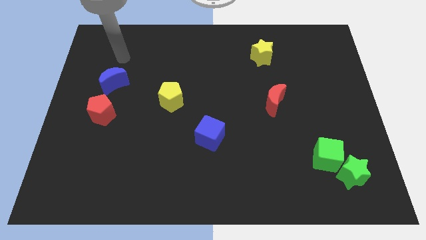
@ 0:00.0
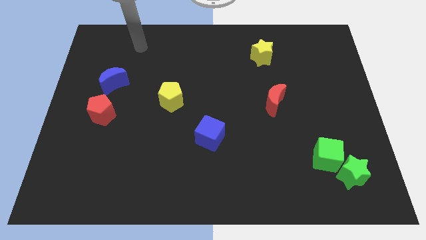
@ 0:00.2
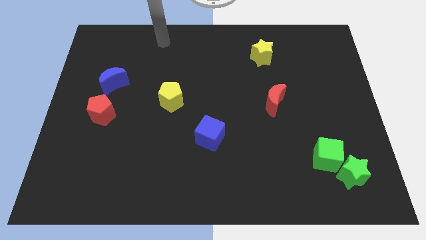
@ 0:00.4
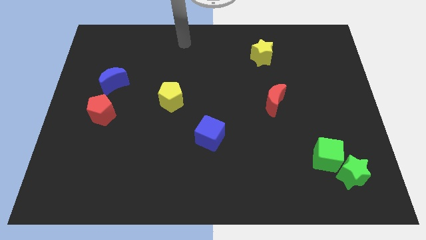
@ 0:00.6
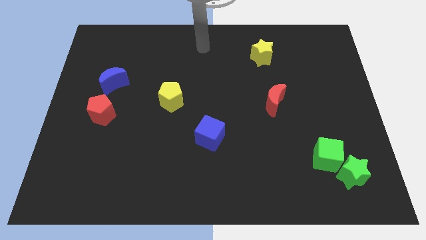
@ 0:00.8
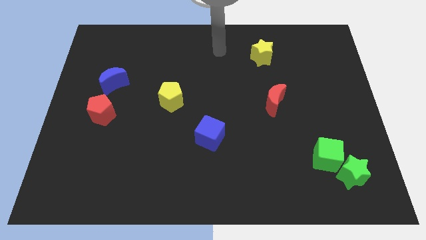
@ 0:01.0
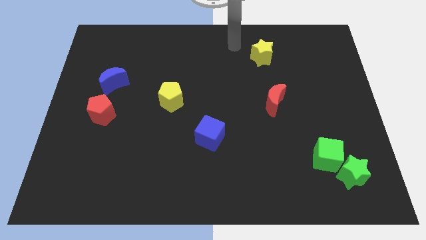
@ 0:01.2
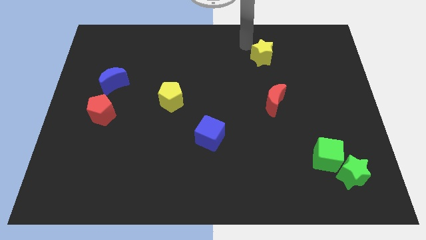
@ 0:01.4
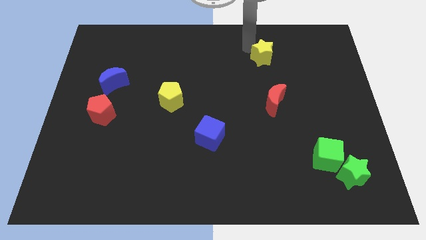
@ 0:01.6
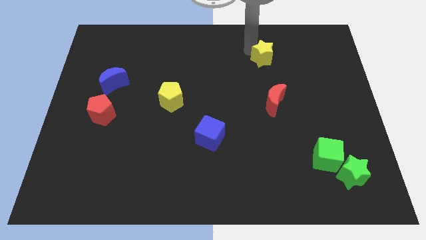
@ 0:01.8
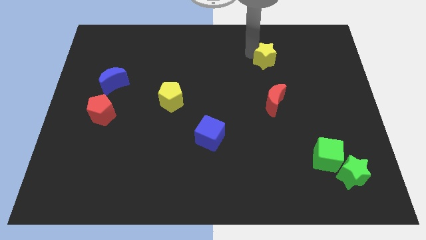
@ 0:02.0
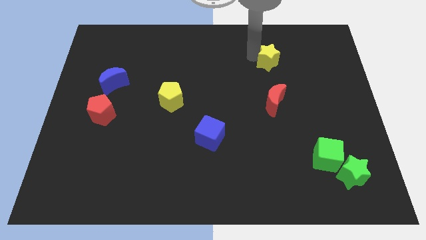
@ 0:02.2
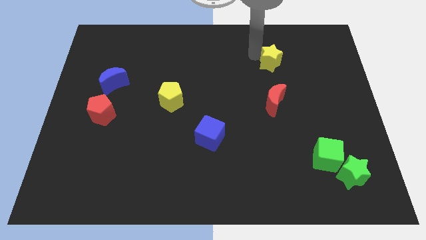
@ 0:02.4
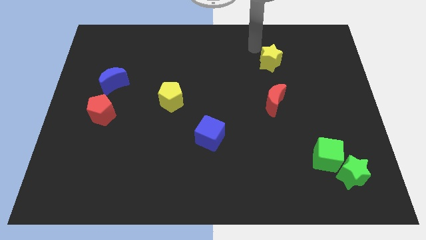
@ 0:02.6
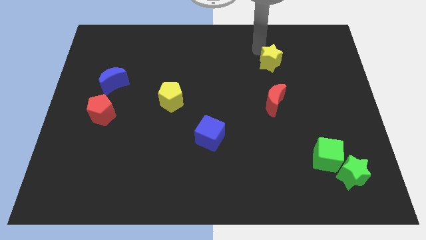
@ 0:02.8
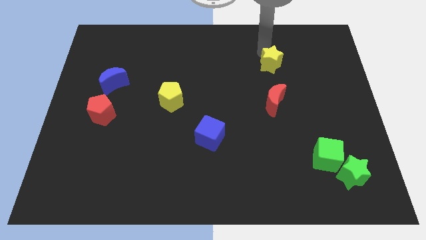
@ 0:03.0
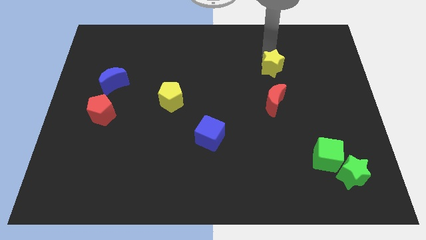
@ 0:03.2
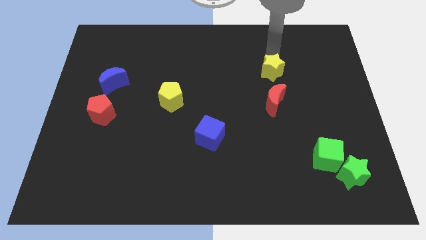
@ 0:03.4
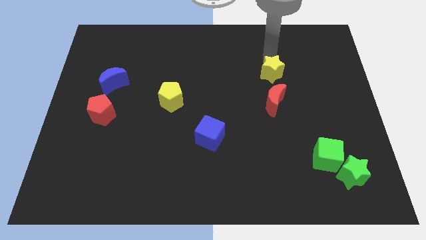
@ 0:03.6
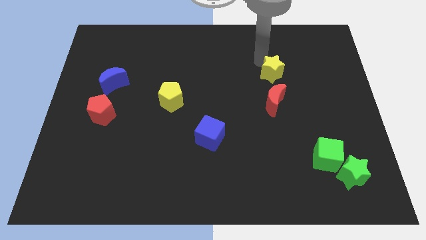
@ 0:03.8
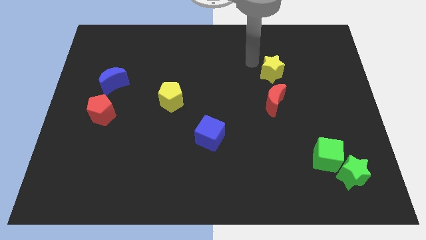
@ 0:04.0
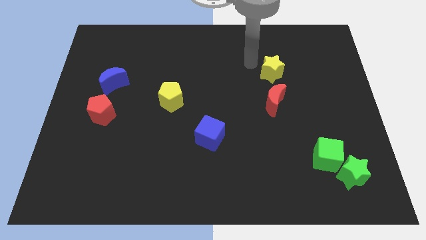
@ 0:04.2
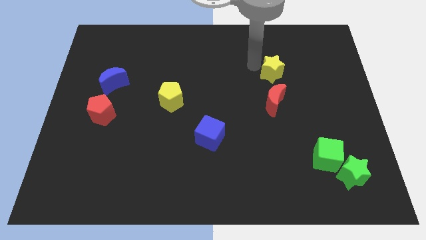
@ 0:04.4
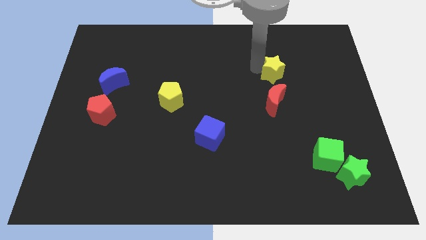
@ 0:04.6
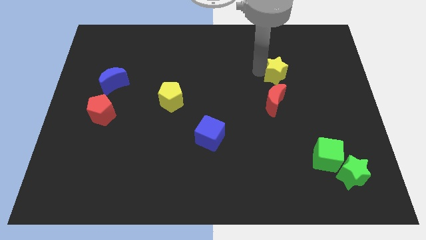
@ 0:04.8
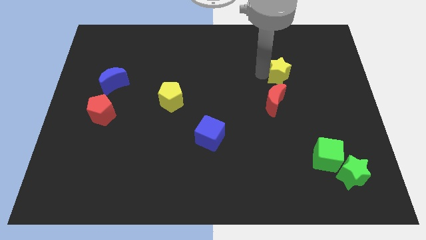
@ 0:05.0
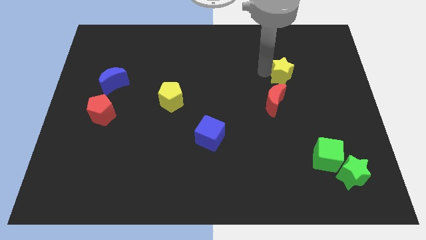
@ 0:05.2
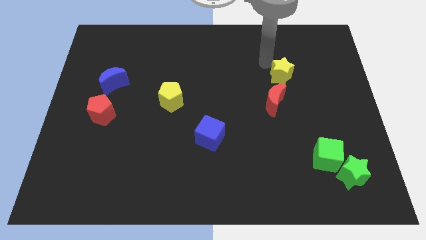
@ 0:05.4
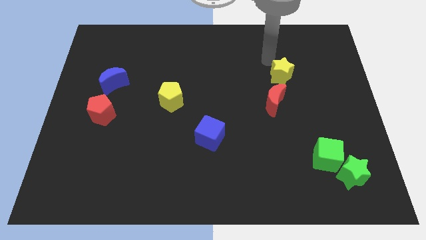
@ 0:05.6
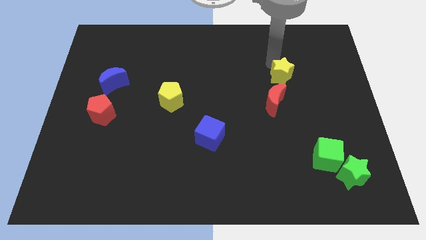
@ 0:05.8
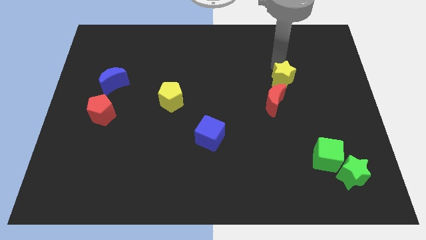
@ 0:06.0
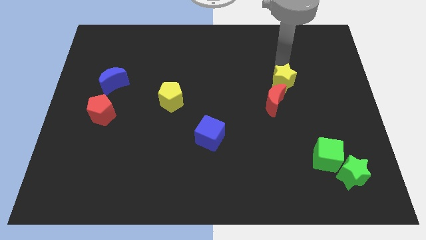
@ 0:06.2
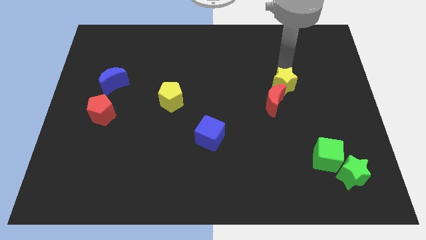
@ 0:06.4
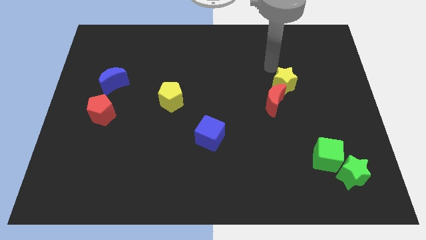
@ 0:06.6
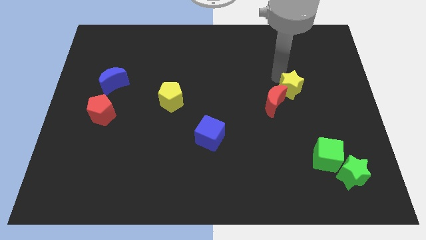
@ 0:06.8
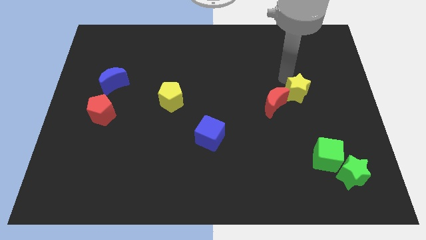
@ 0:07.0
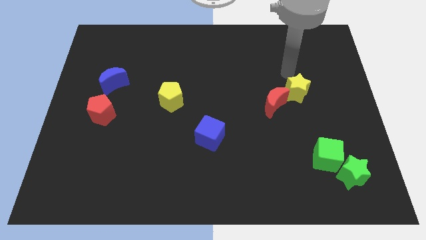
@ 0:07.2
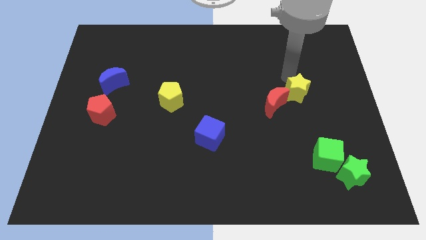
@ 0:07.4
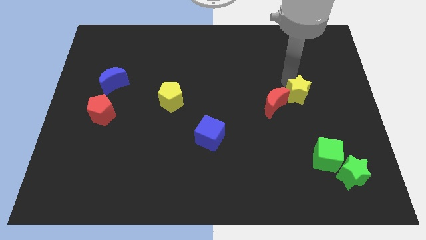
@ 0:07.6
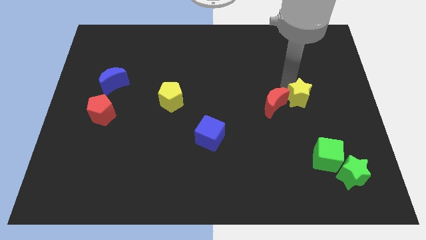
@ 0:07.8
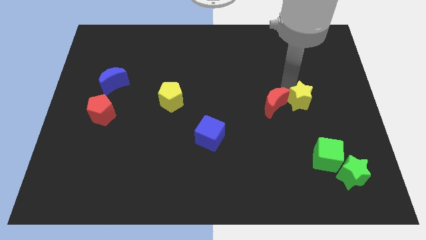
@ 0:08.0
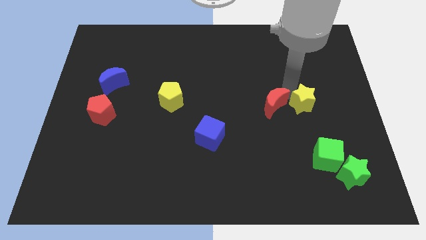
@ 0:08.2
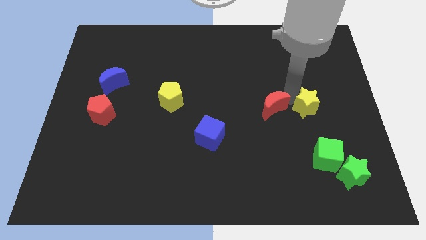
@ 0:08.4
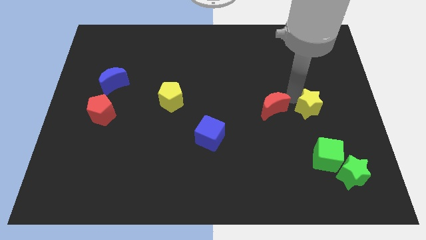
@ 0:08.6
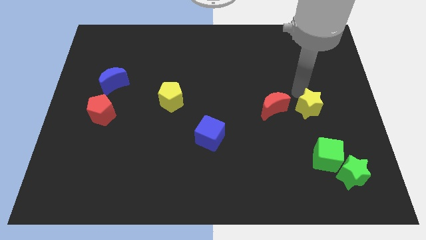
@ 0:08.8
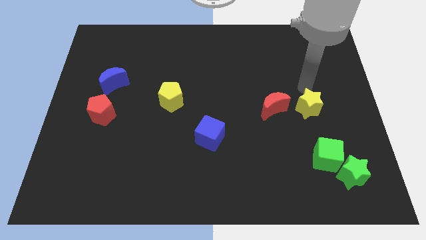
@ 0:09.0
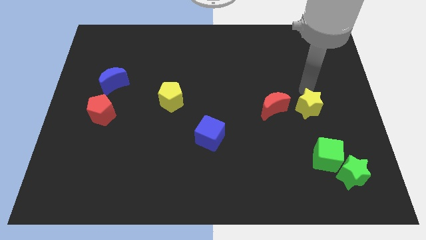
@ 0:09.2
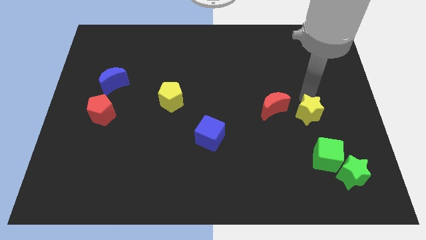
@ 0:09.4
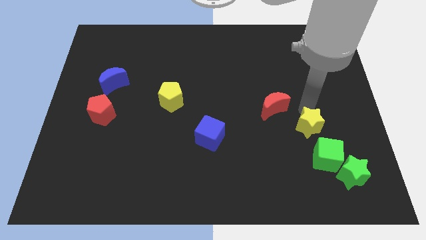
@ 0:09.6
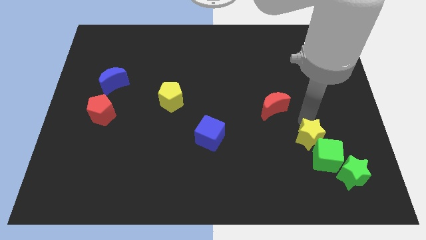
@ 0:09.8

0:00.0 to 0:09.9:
move the yellow star next to the green cube

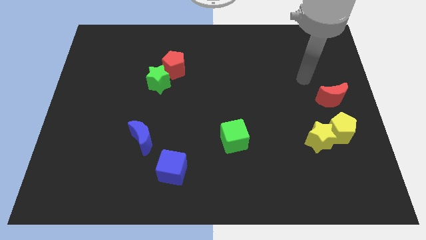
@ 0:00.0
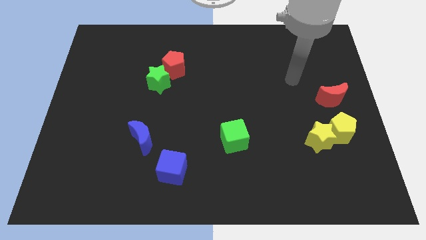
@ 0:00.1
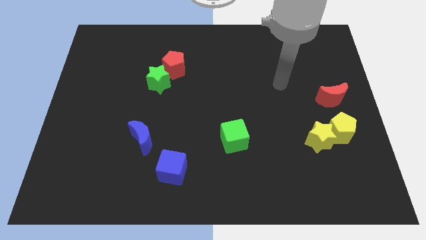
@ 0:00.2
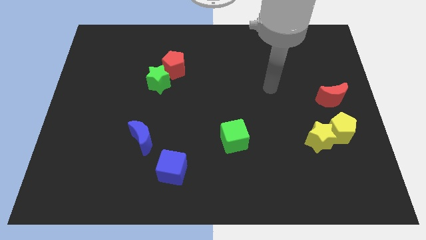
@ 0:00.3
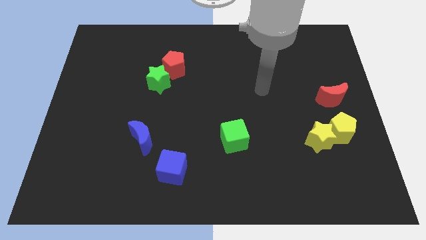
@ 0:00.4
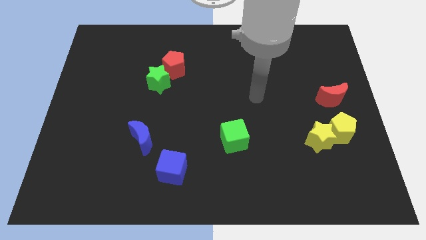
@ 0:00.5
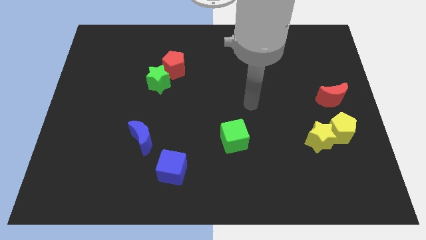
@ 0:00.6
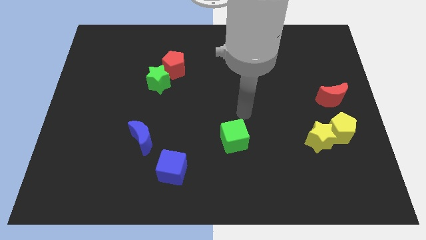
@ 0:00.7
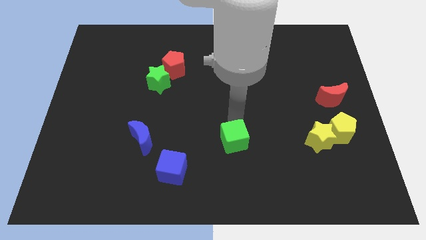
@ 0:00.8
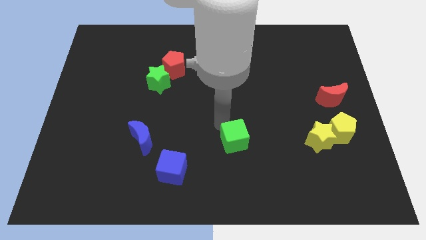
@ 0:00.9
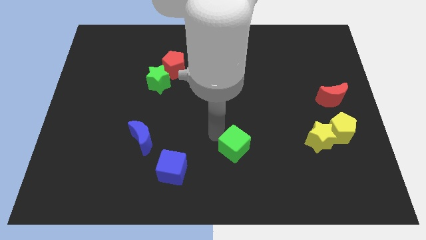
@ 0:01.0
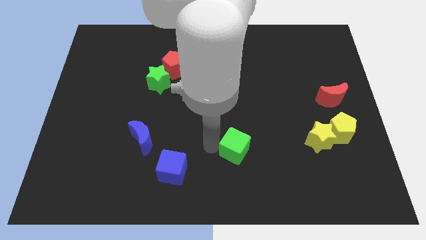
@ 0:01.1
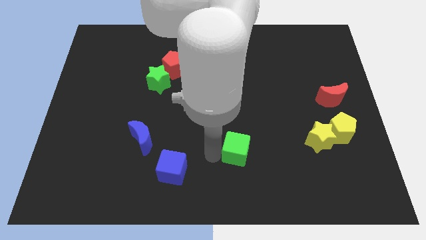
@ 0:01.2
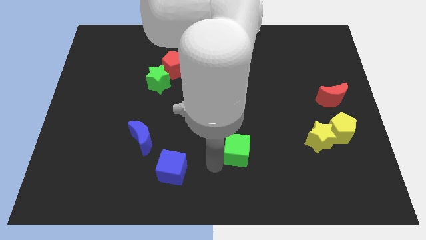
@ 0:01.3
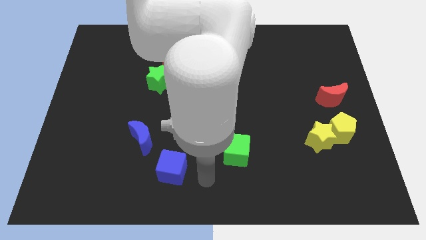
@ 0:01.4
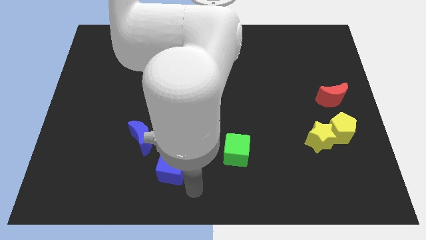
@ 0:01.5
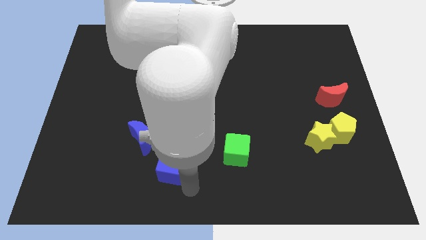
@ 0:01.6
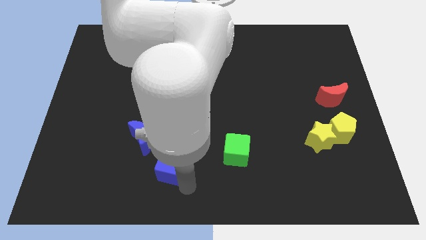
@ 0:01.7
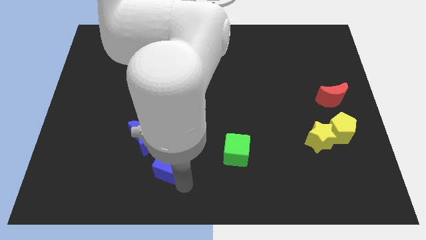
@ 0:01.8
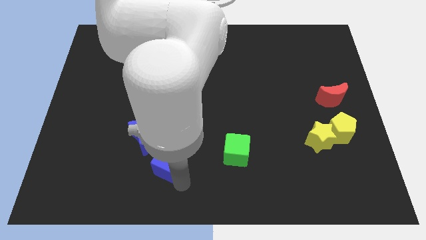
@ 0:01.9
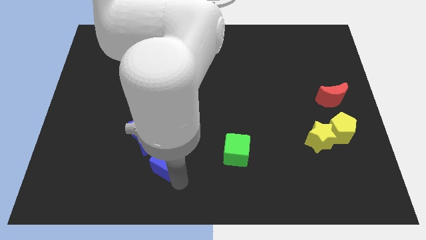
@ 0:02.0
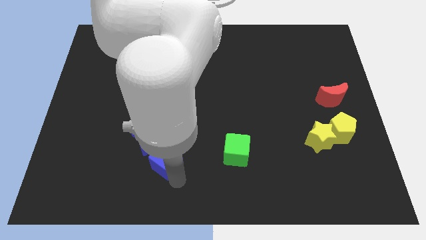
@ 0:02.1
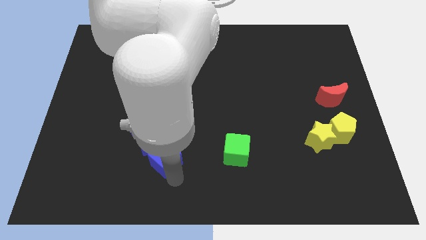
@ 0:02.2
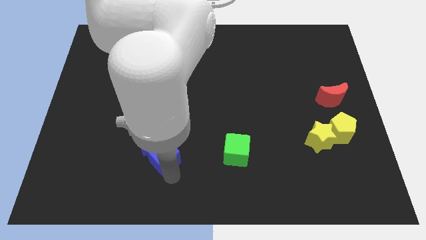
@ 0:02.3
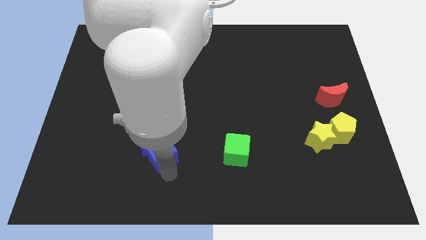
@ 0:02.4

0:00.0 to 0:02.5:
put the blue cube towards the blue moon
